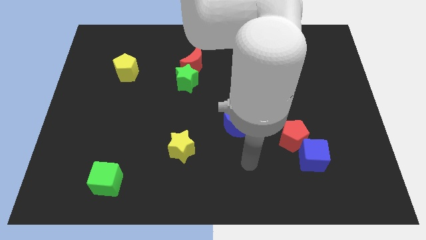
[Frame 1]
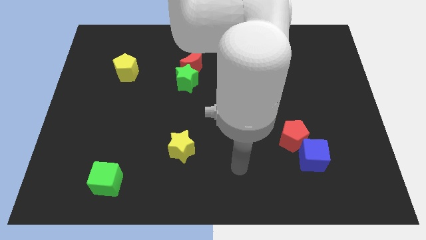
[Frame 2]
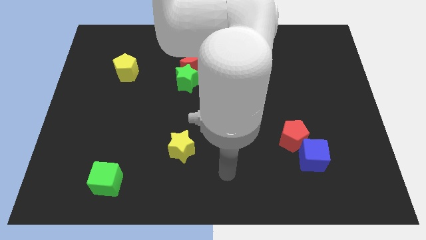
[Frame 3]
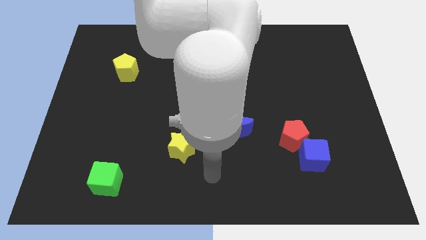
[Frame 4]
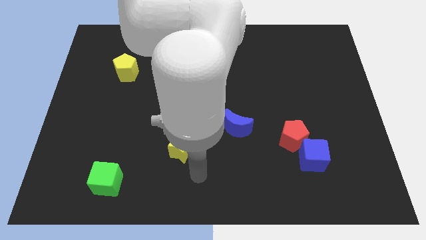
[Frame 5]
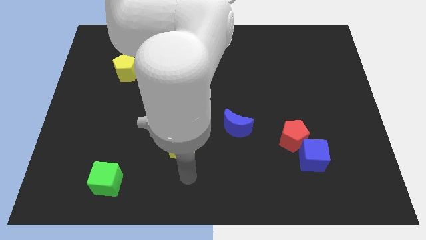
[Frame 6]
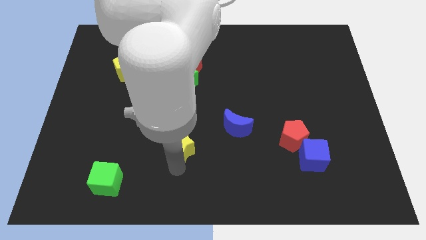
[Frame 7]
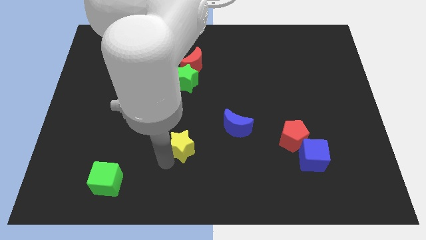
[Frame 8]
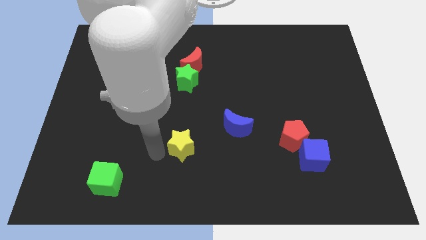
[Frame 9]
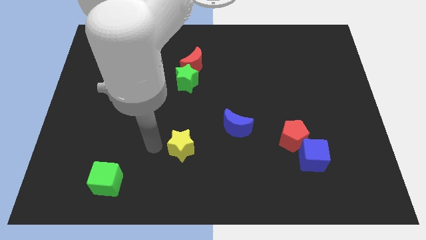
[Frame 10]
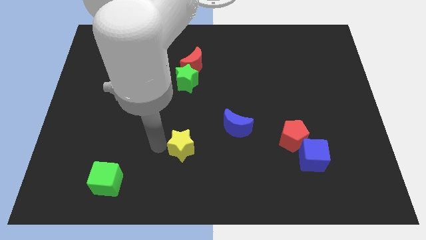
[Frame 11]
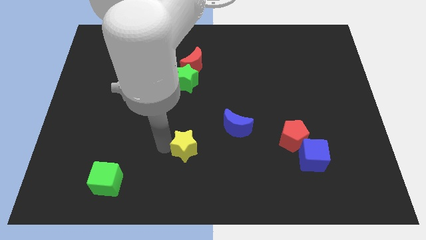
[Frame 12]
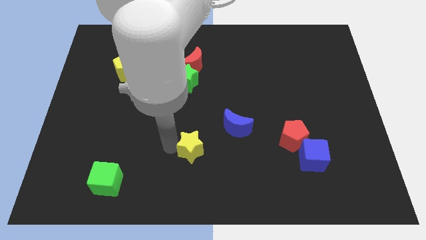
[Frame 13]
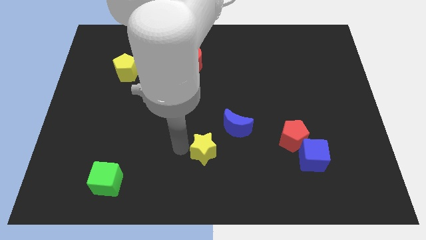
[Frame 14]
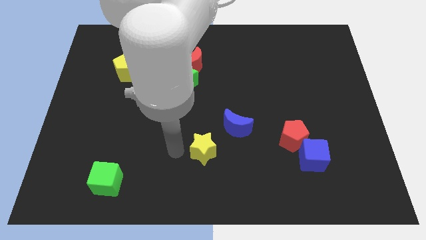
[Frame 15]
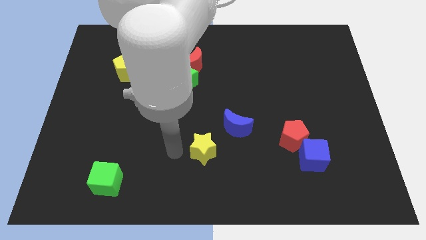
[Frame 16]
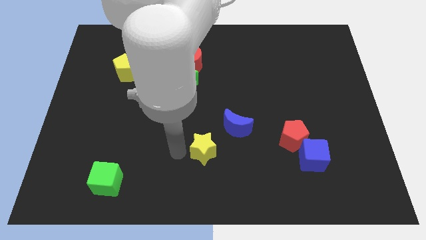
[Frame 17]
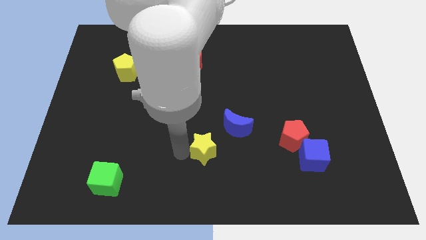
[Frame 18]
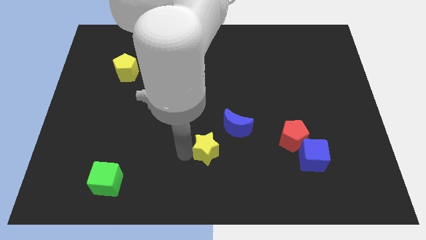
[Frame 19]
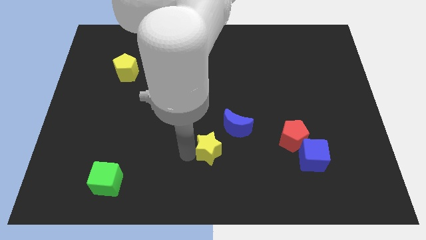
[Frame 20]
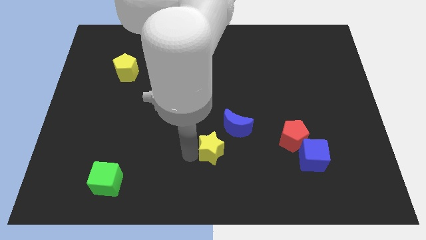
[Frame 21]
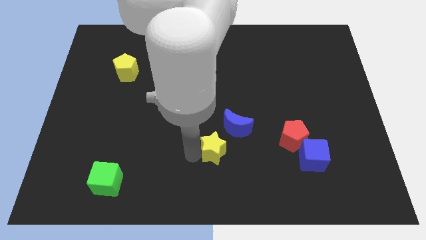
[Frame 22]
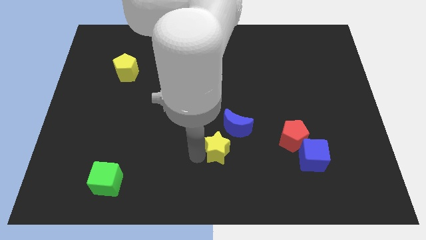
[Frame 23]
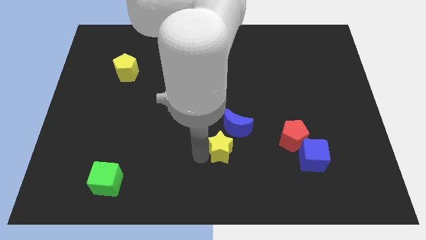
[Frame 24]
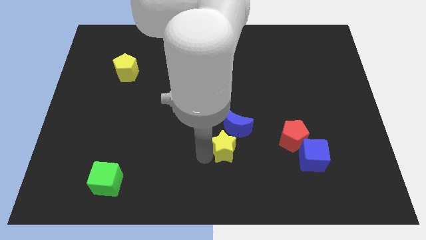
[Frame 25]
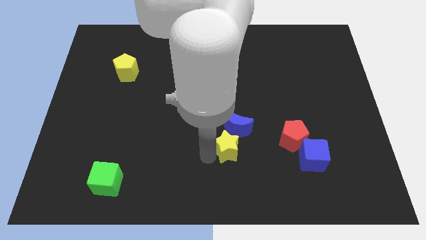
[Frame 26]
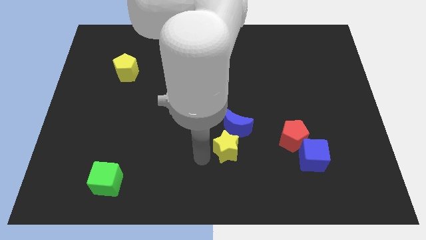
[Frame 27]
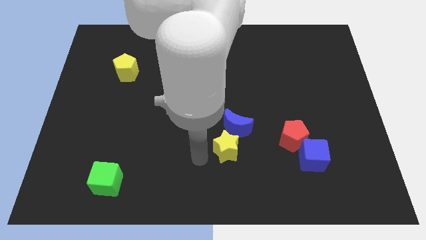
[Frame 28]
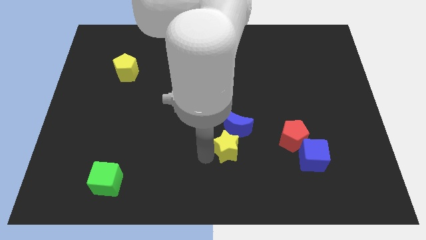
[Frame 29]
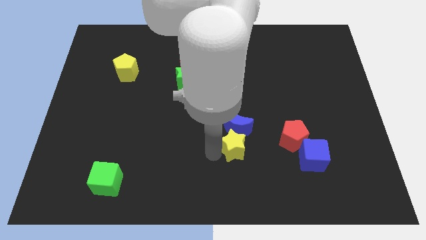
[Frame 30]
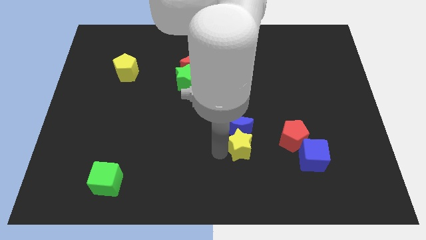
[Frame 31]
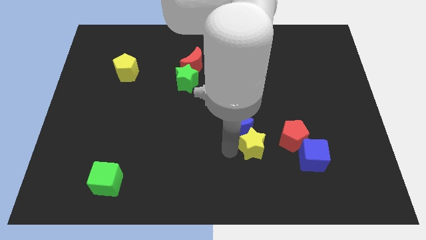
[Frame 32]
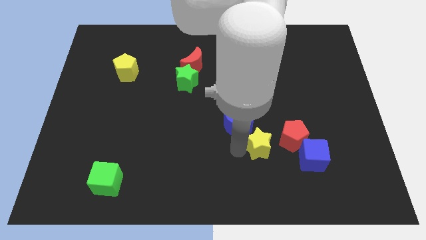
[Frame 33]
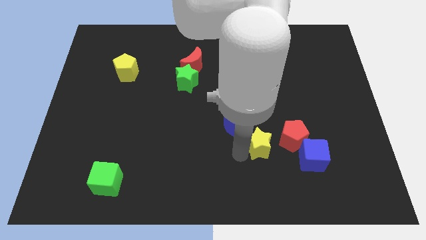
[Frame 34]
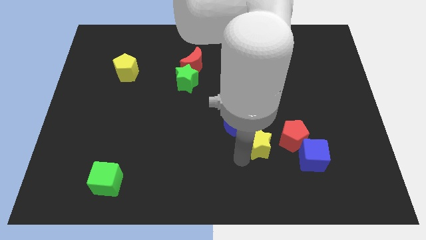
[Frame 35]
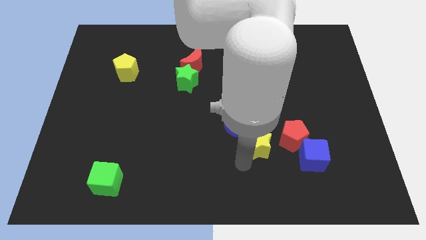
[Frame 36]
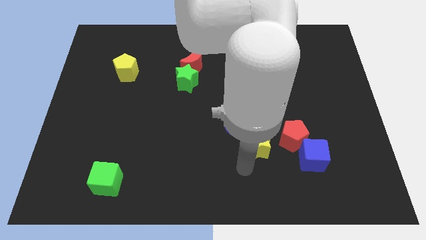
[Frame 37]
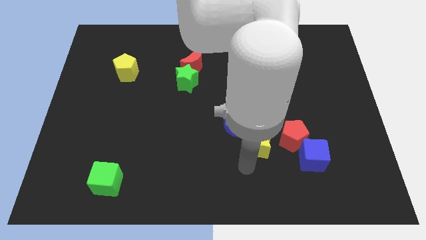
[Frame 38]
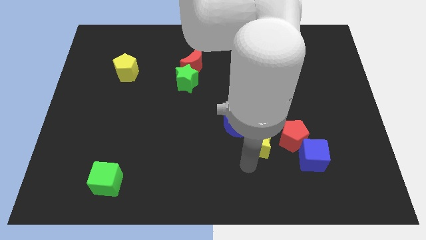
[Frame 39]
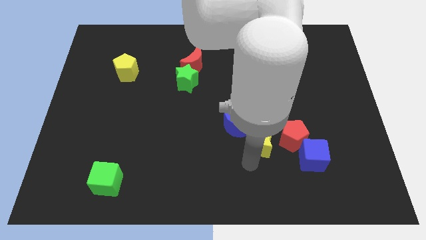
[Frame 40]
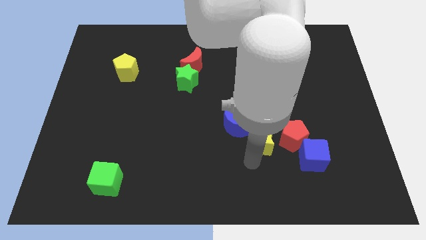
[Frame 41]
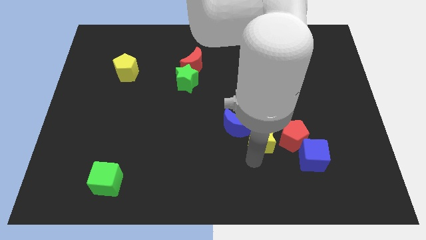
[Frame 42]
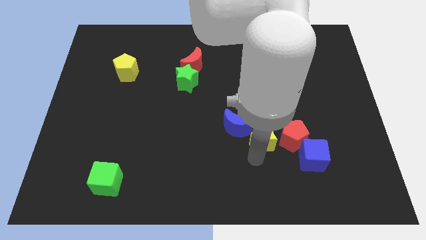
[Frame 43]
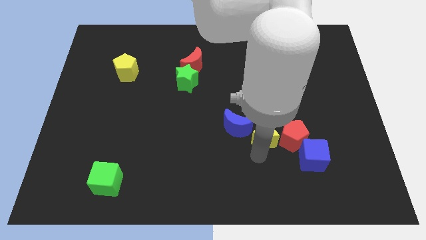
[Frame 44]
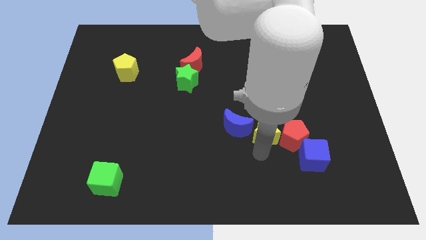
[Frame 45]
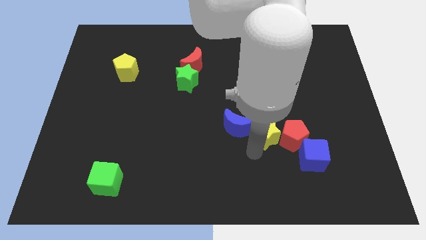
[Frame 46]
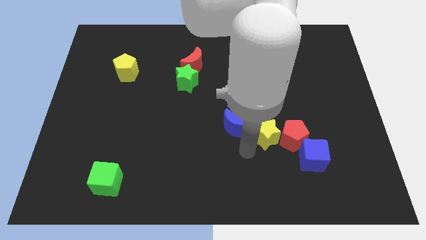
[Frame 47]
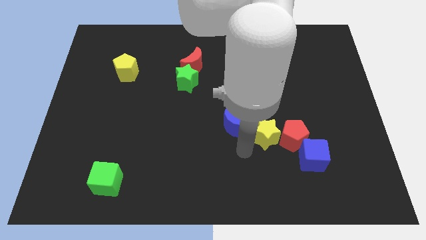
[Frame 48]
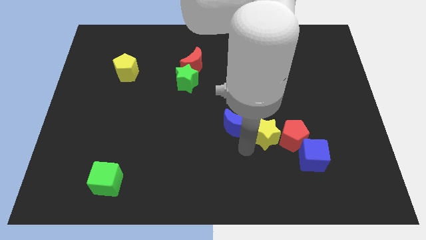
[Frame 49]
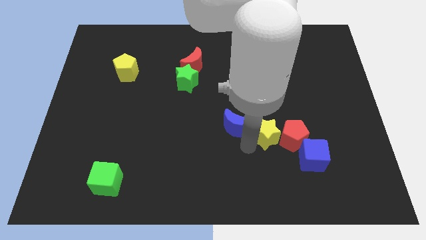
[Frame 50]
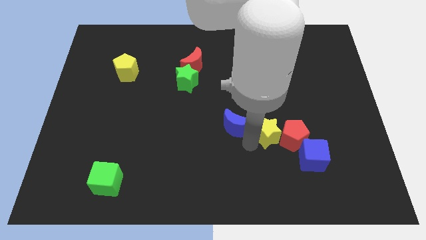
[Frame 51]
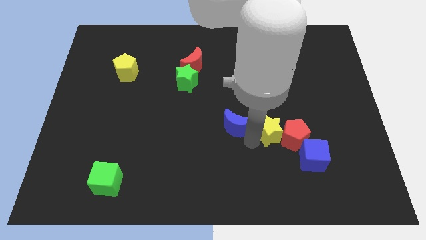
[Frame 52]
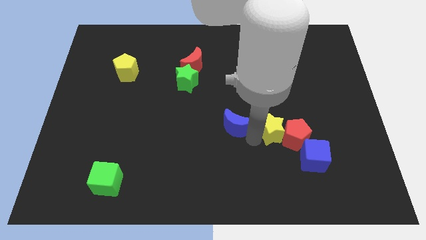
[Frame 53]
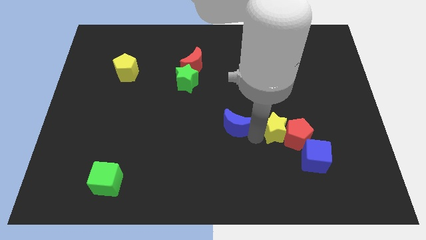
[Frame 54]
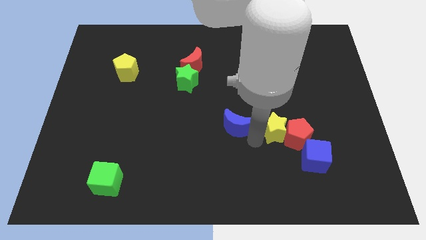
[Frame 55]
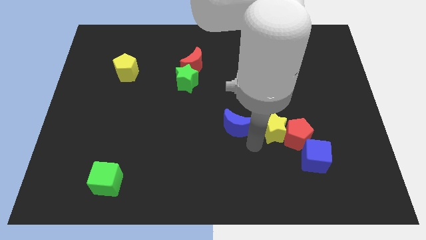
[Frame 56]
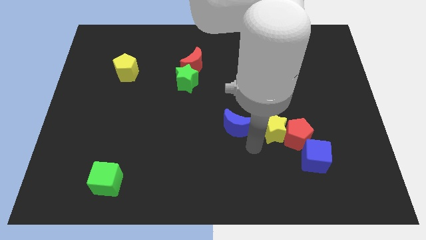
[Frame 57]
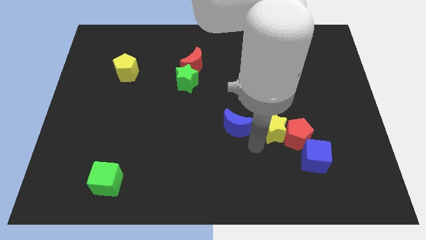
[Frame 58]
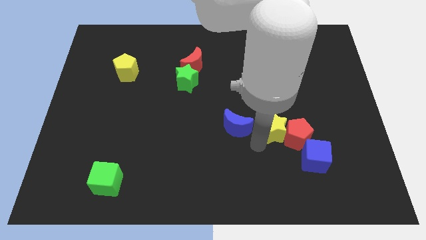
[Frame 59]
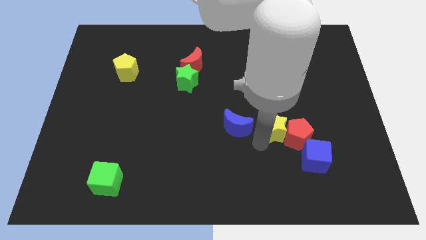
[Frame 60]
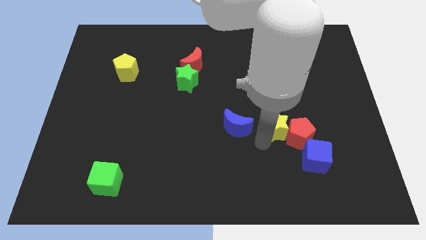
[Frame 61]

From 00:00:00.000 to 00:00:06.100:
move the yellow star to the right

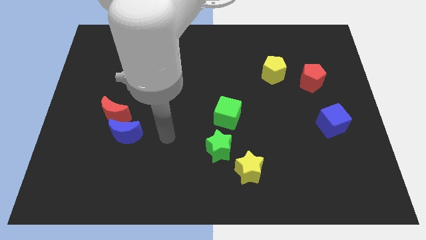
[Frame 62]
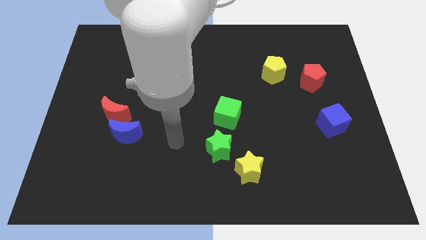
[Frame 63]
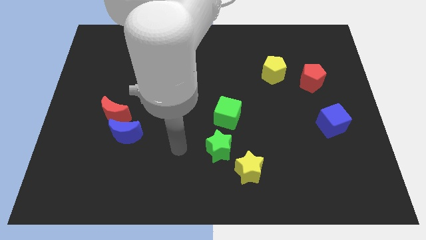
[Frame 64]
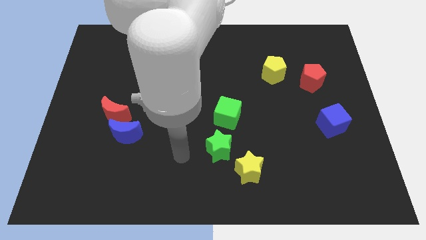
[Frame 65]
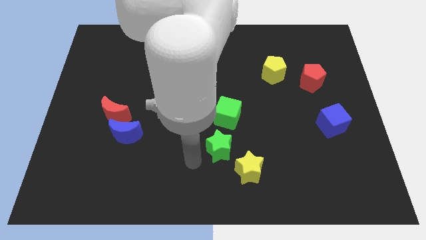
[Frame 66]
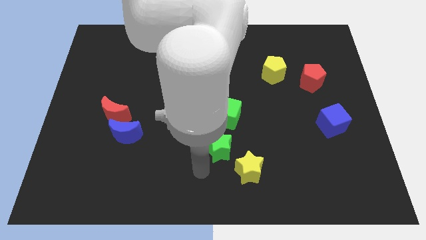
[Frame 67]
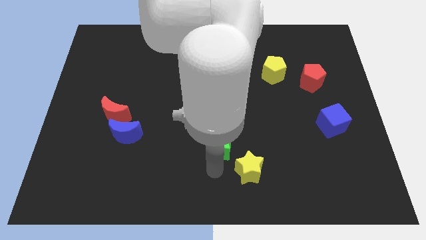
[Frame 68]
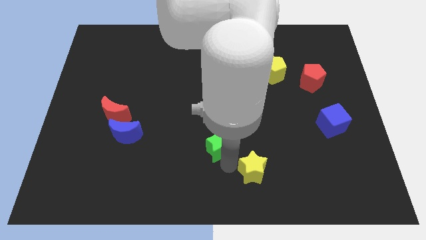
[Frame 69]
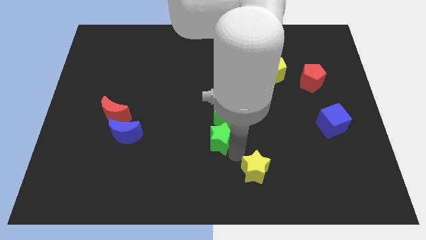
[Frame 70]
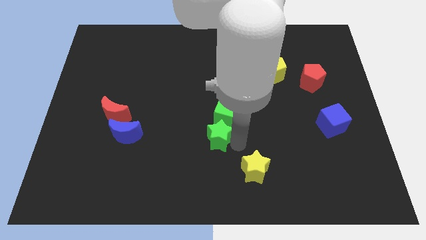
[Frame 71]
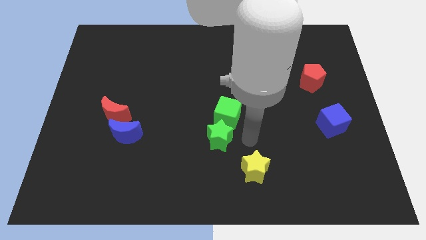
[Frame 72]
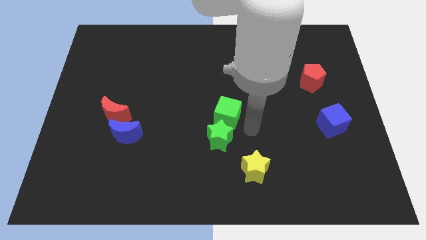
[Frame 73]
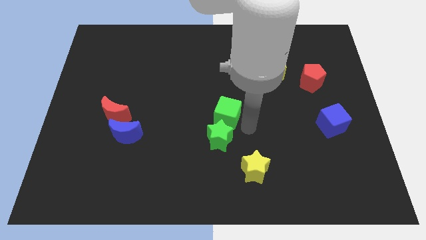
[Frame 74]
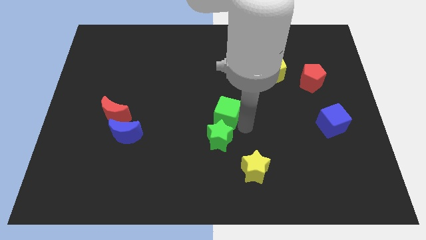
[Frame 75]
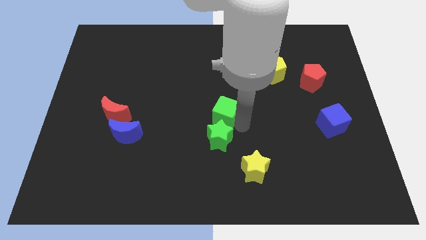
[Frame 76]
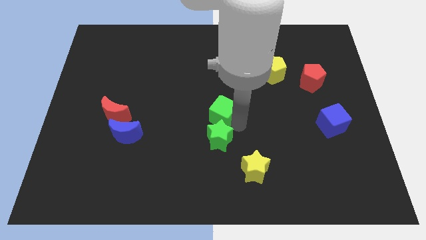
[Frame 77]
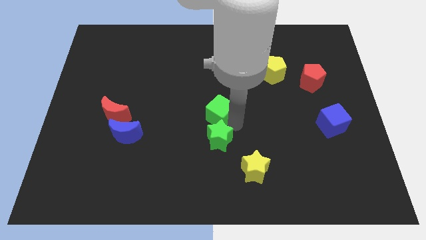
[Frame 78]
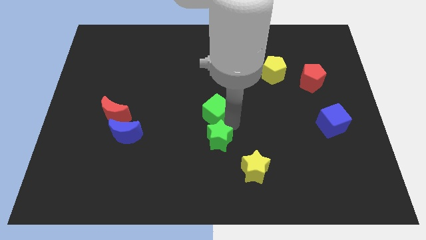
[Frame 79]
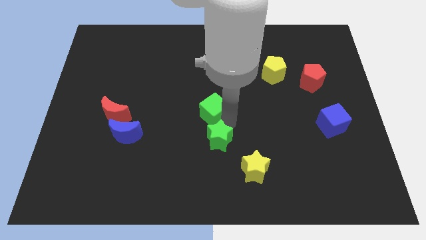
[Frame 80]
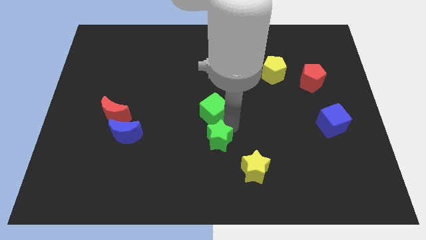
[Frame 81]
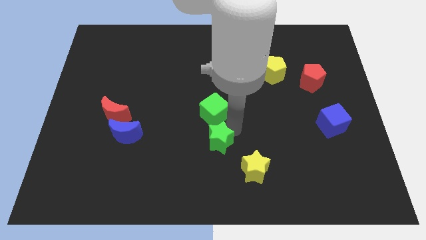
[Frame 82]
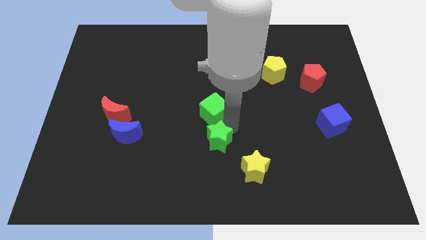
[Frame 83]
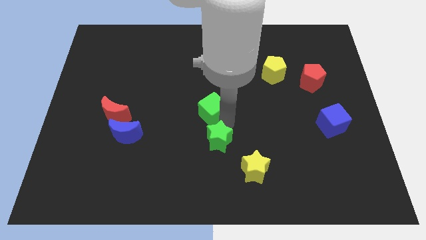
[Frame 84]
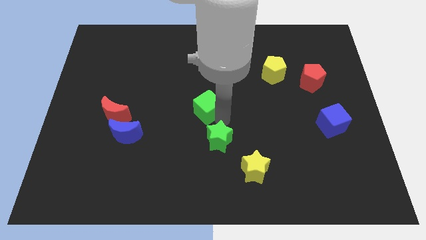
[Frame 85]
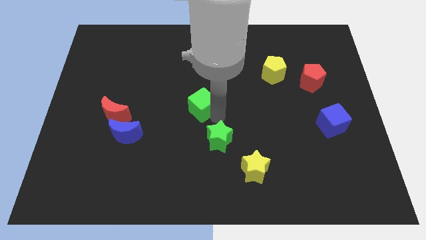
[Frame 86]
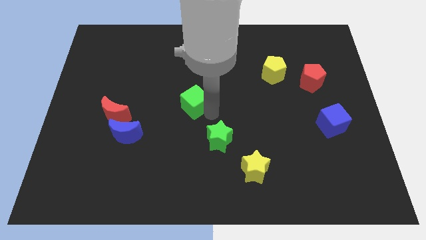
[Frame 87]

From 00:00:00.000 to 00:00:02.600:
slightly move the green cube up and left
